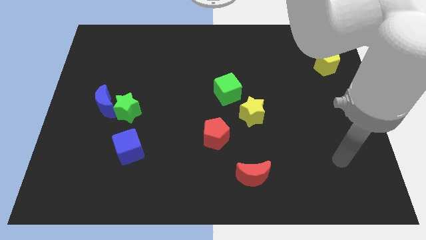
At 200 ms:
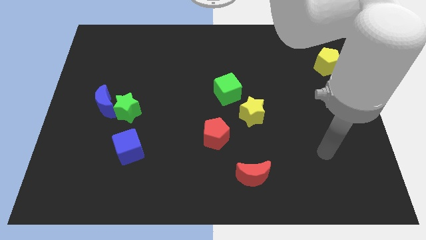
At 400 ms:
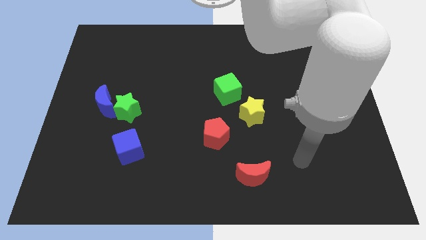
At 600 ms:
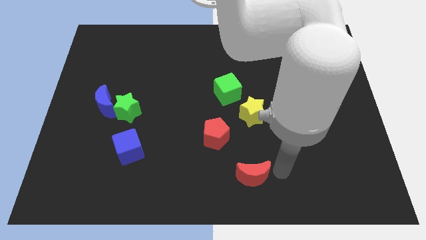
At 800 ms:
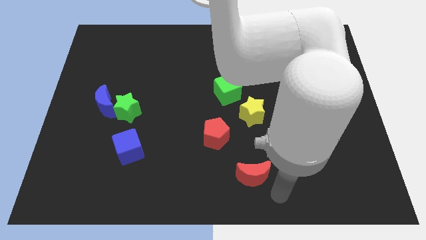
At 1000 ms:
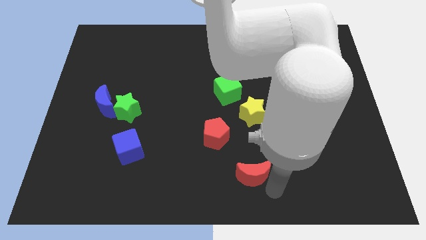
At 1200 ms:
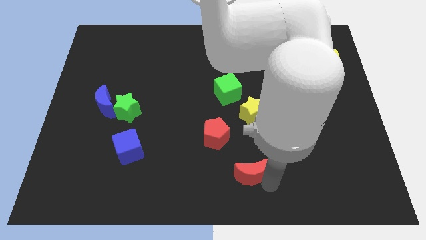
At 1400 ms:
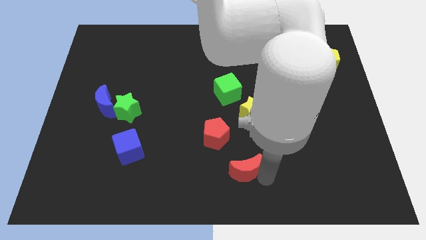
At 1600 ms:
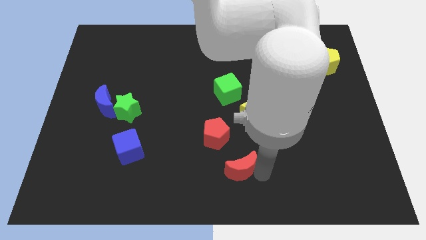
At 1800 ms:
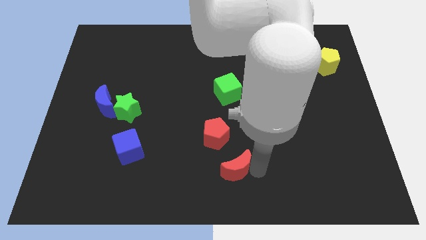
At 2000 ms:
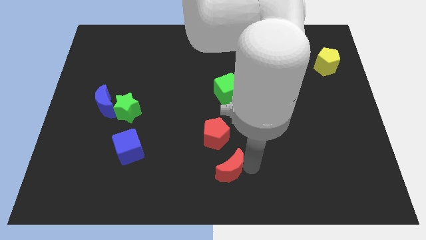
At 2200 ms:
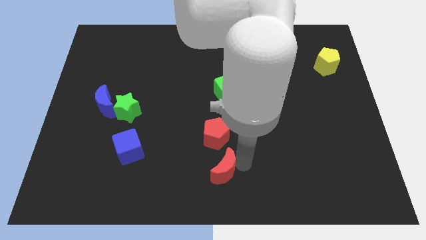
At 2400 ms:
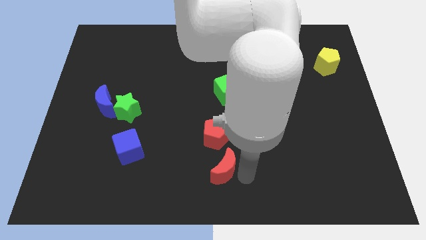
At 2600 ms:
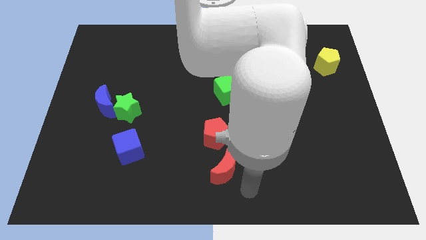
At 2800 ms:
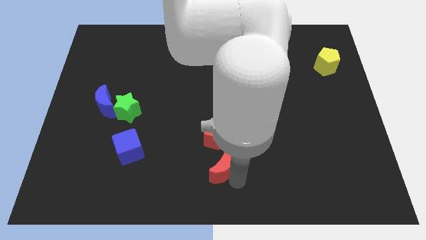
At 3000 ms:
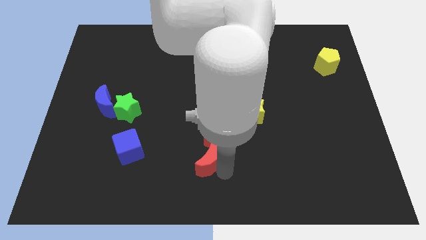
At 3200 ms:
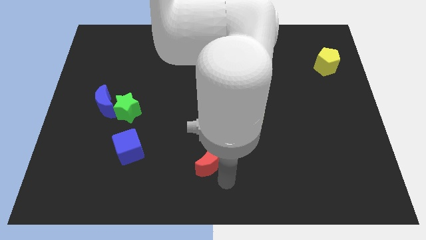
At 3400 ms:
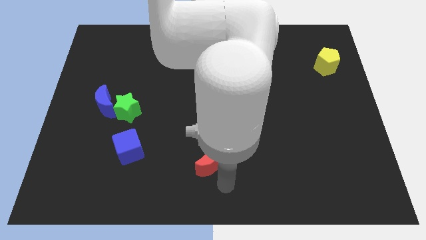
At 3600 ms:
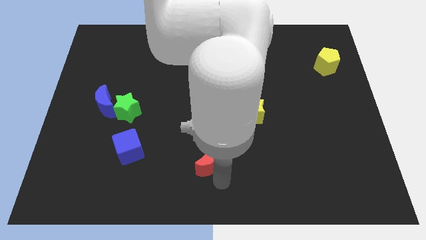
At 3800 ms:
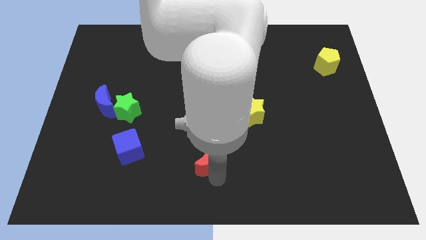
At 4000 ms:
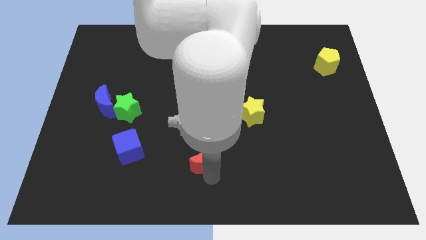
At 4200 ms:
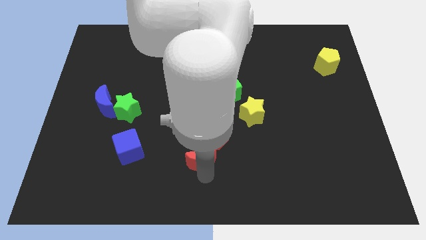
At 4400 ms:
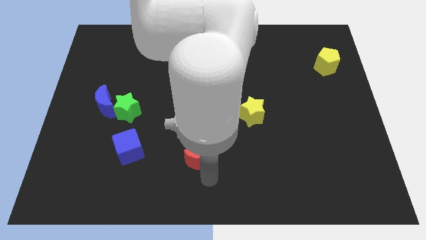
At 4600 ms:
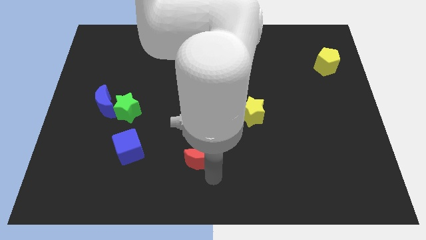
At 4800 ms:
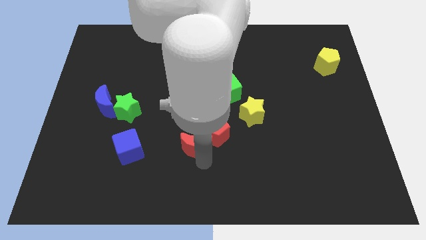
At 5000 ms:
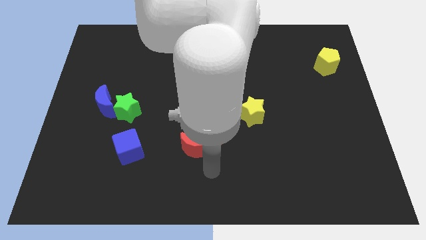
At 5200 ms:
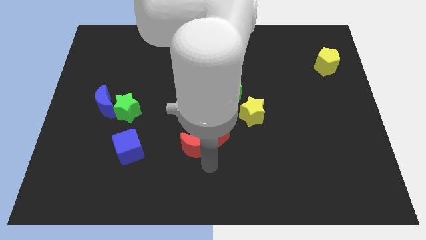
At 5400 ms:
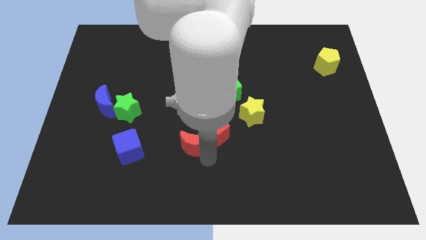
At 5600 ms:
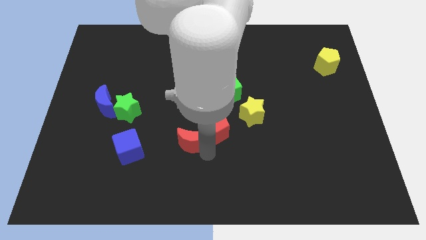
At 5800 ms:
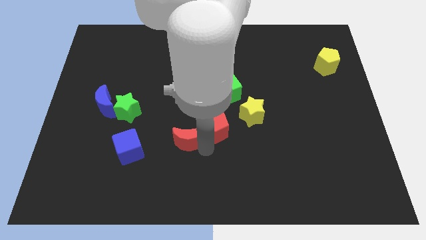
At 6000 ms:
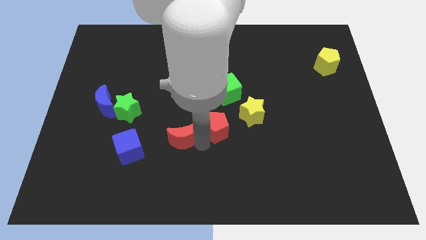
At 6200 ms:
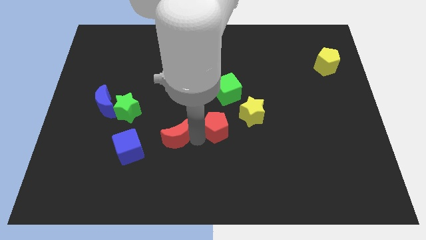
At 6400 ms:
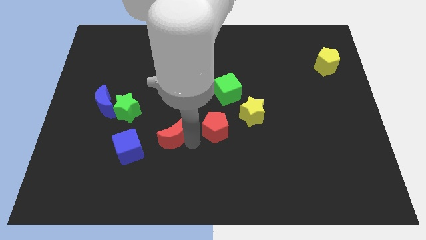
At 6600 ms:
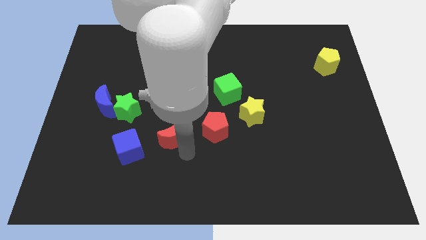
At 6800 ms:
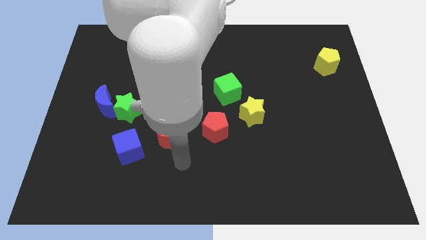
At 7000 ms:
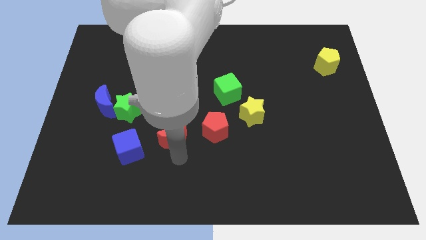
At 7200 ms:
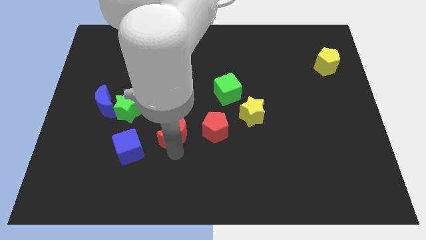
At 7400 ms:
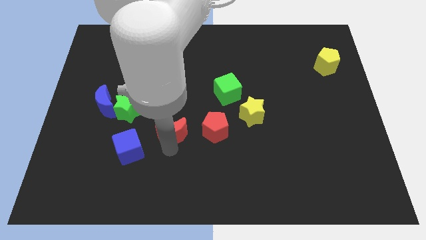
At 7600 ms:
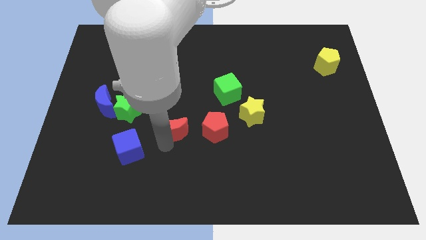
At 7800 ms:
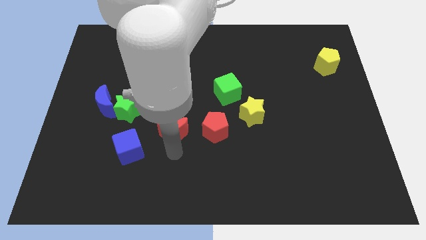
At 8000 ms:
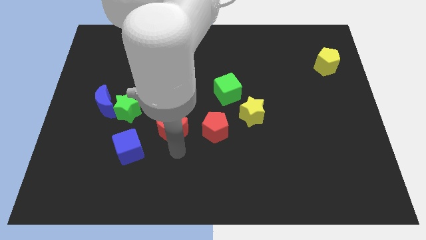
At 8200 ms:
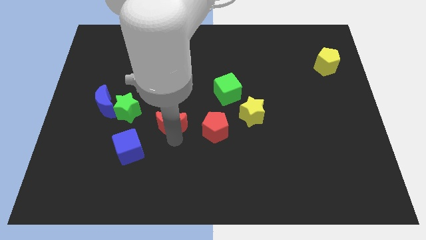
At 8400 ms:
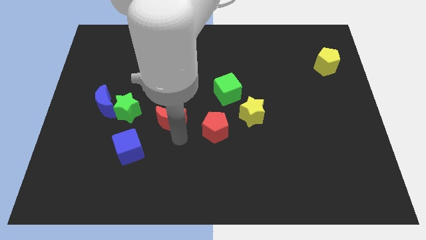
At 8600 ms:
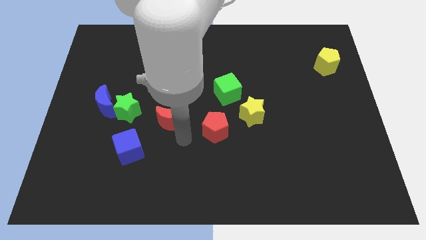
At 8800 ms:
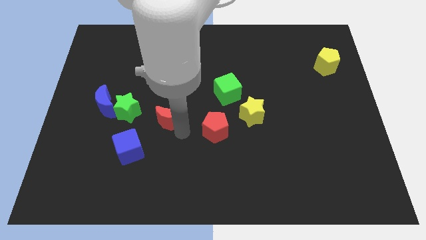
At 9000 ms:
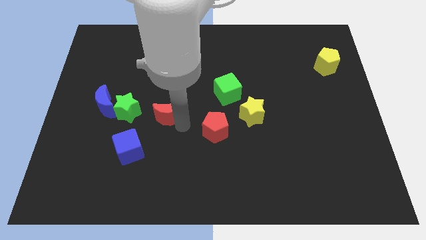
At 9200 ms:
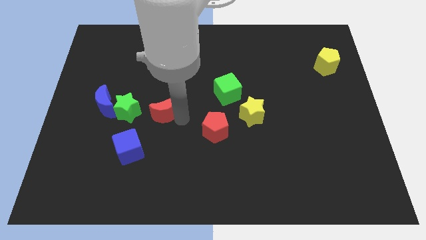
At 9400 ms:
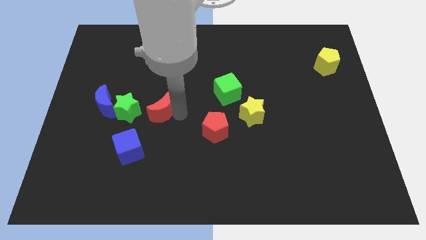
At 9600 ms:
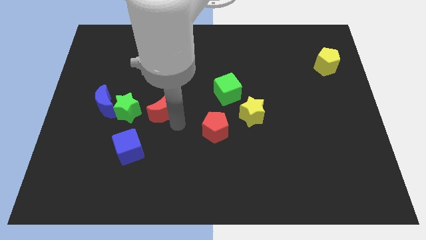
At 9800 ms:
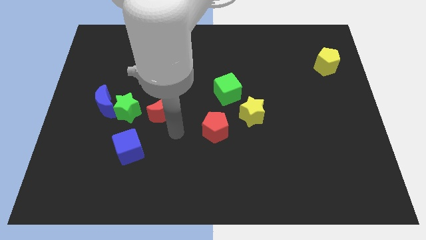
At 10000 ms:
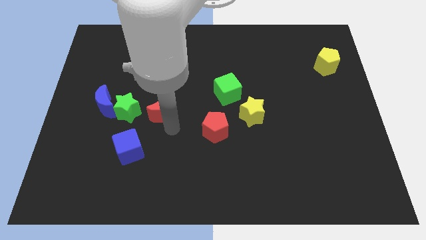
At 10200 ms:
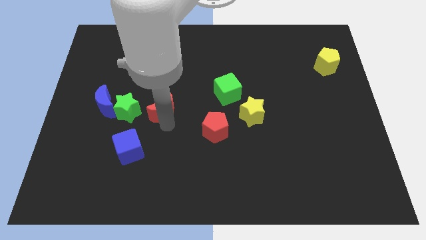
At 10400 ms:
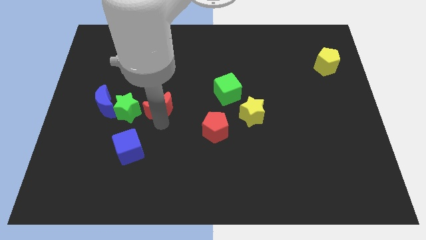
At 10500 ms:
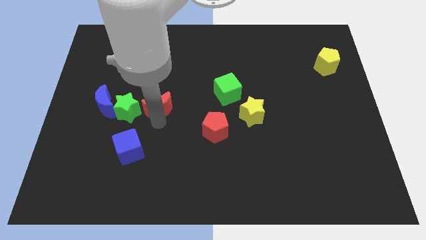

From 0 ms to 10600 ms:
slide the red moon to the top right of the green star

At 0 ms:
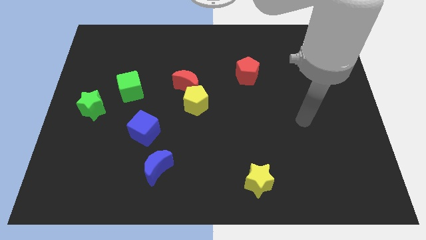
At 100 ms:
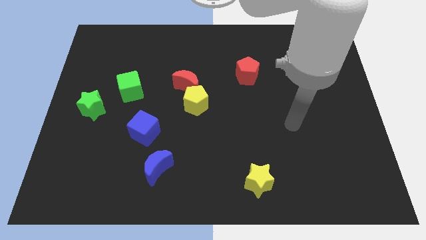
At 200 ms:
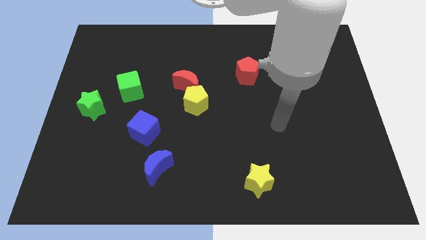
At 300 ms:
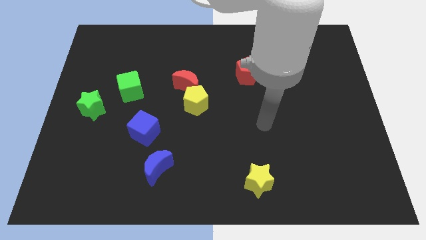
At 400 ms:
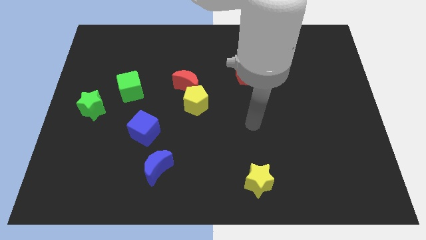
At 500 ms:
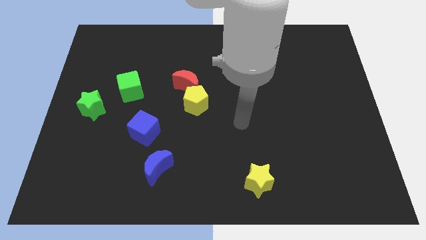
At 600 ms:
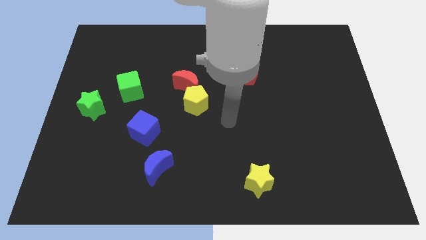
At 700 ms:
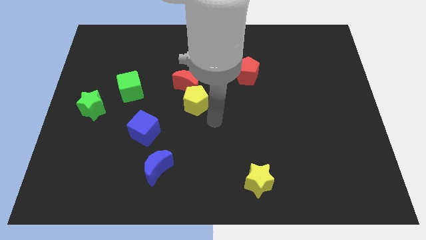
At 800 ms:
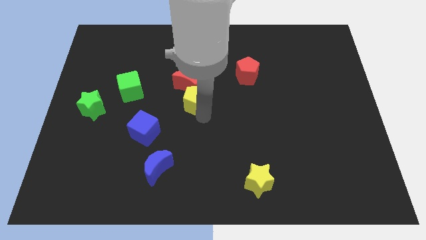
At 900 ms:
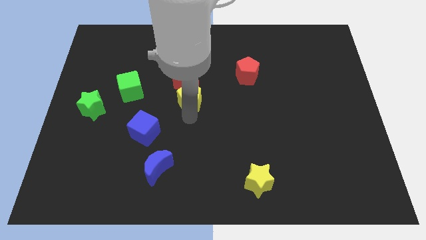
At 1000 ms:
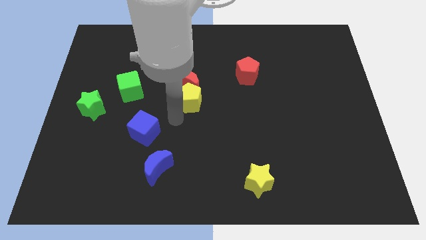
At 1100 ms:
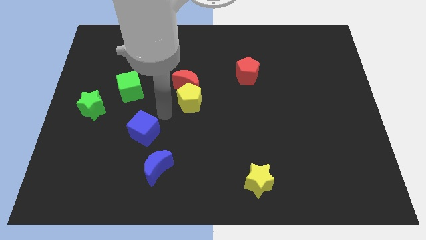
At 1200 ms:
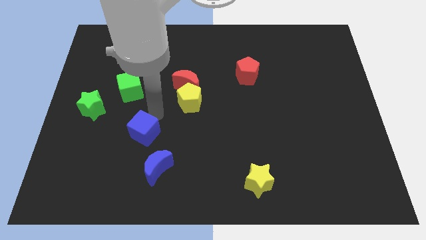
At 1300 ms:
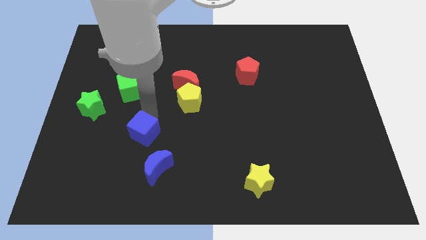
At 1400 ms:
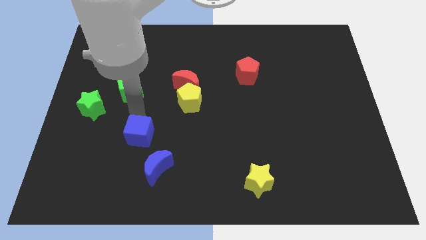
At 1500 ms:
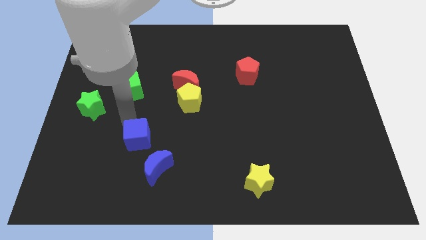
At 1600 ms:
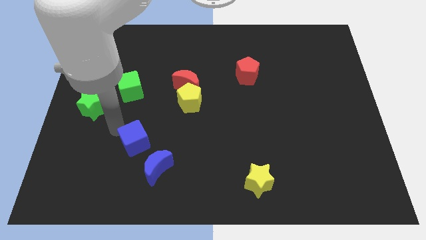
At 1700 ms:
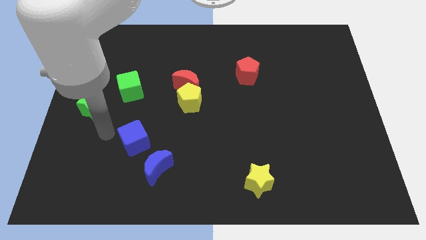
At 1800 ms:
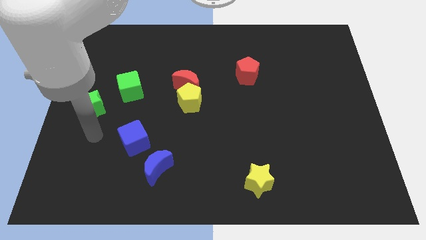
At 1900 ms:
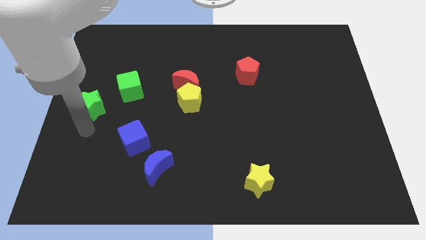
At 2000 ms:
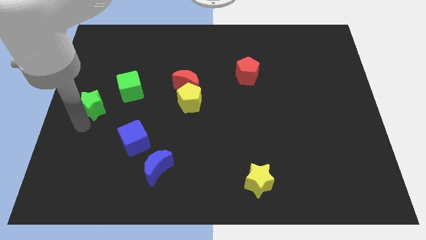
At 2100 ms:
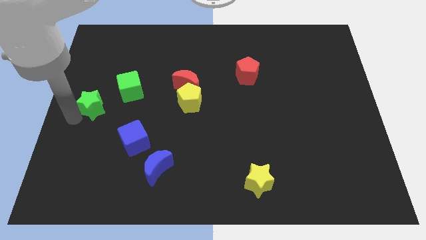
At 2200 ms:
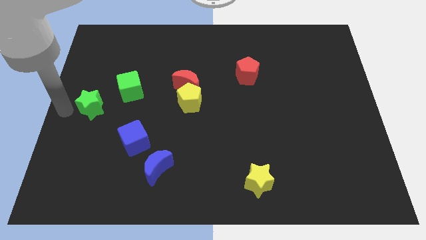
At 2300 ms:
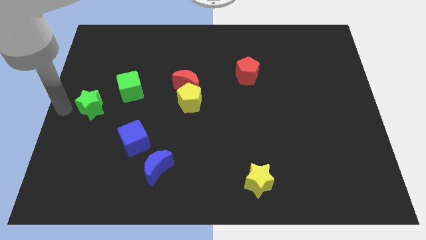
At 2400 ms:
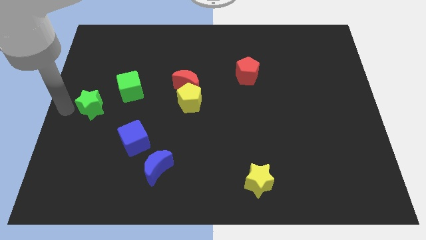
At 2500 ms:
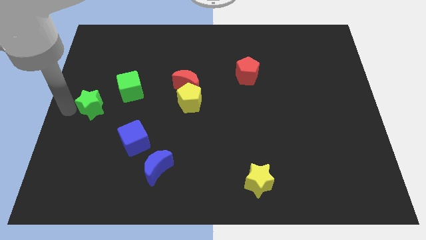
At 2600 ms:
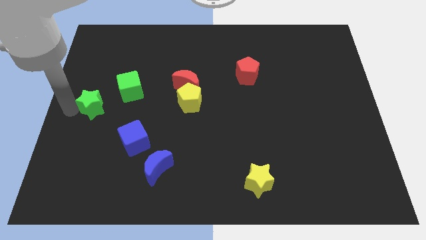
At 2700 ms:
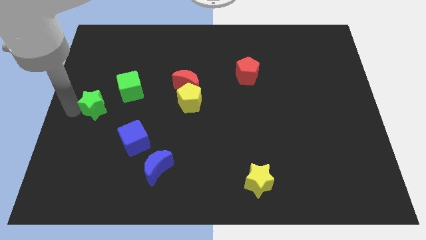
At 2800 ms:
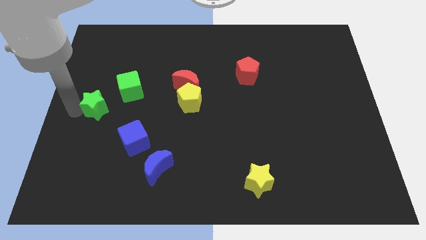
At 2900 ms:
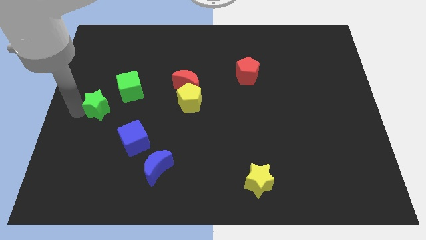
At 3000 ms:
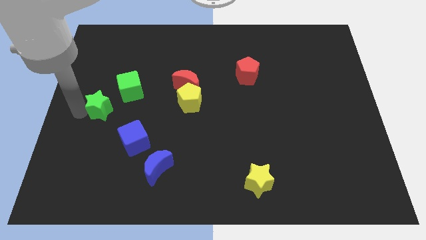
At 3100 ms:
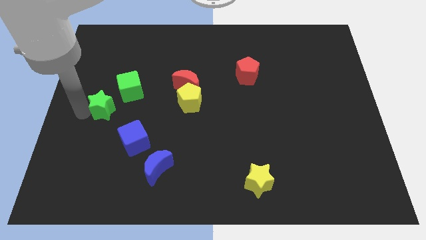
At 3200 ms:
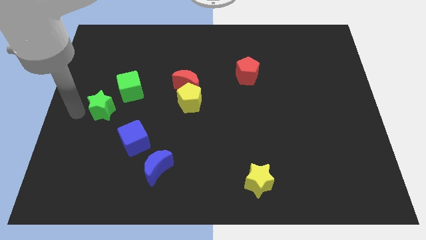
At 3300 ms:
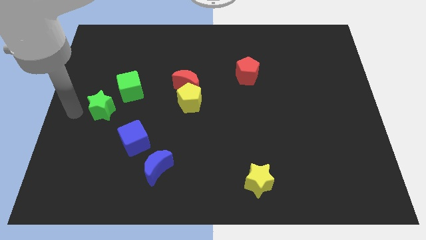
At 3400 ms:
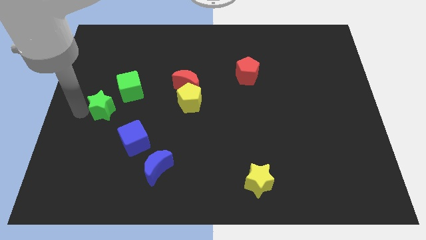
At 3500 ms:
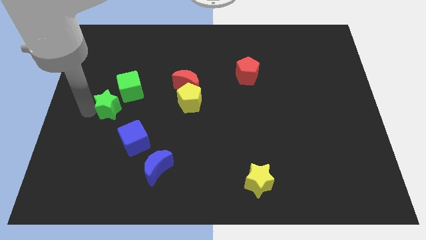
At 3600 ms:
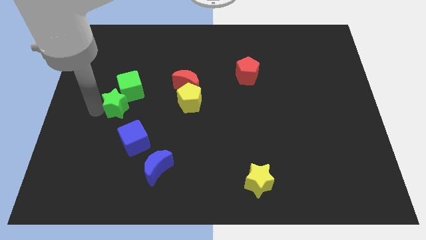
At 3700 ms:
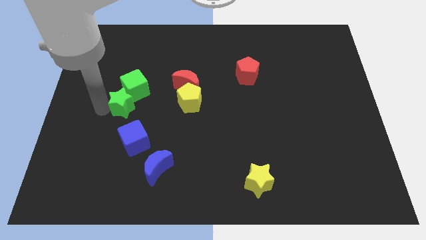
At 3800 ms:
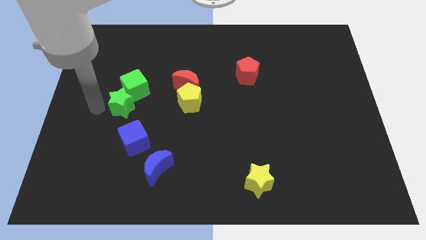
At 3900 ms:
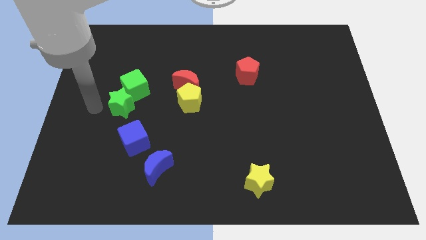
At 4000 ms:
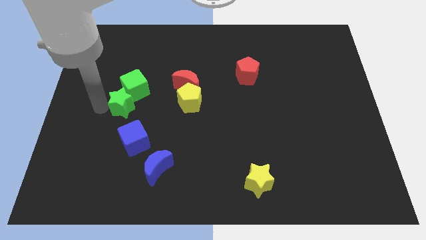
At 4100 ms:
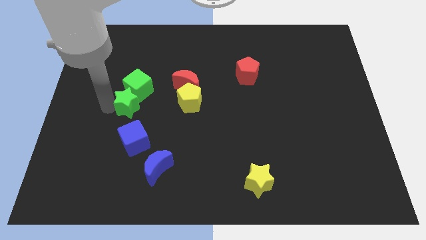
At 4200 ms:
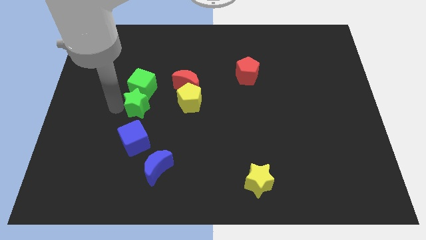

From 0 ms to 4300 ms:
push the green star to the bottom right of the green cube
